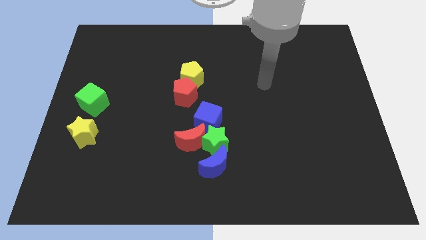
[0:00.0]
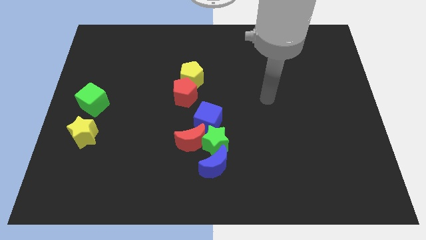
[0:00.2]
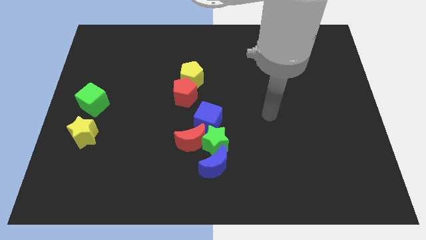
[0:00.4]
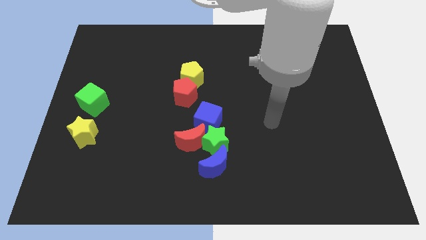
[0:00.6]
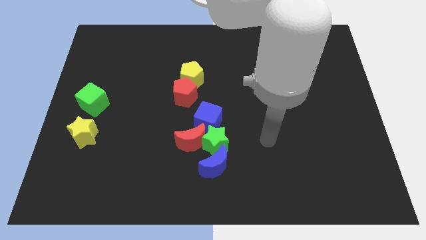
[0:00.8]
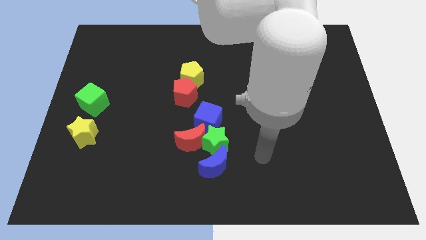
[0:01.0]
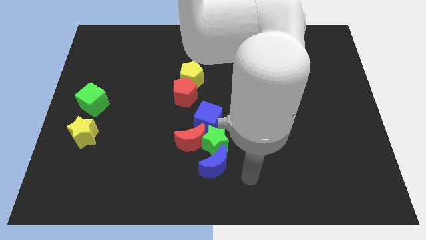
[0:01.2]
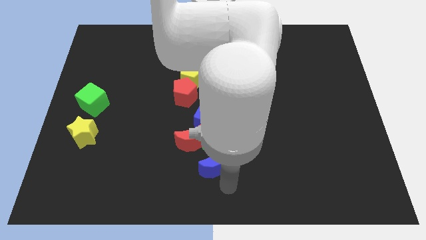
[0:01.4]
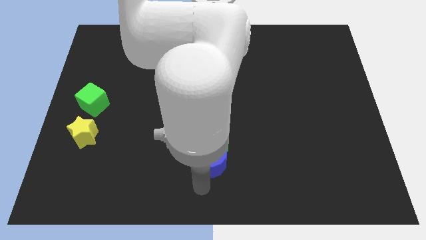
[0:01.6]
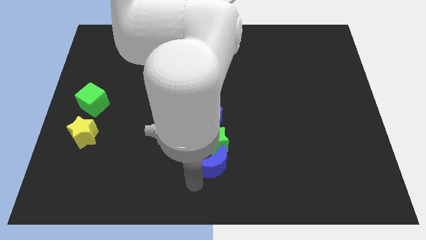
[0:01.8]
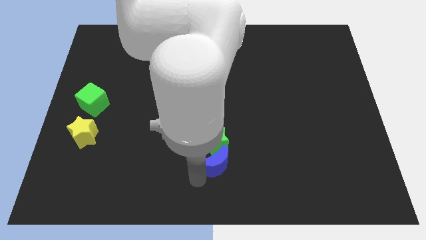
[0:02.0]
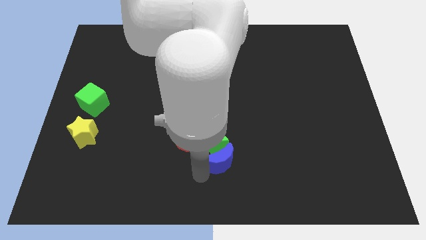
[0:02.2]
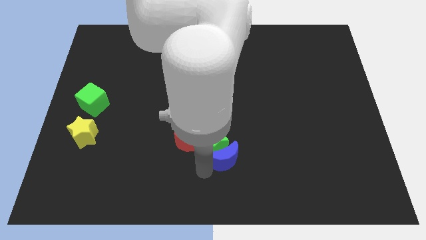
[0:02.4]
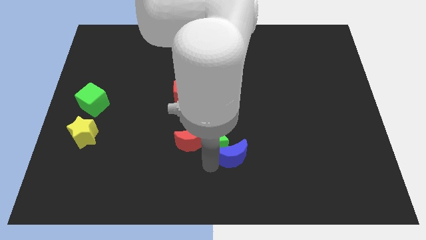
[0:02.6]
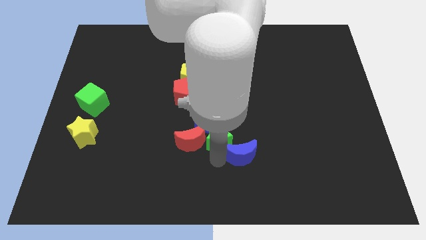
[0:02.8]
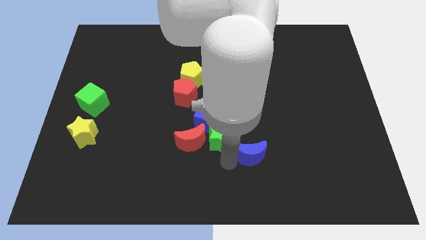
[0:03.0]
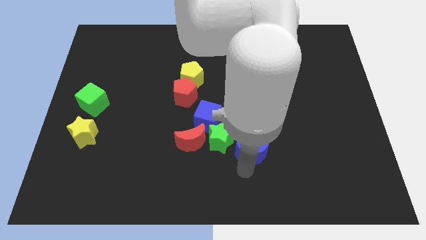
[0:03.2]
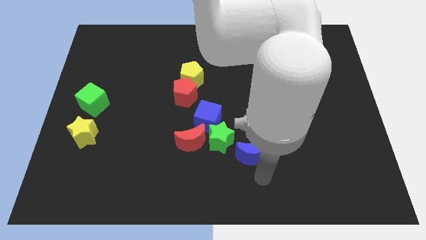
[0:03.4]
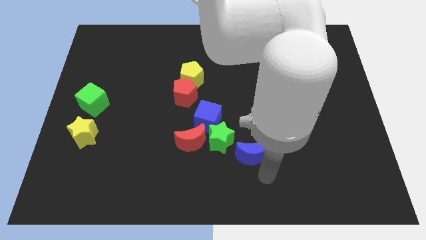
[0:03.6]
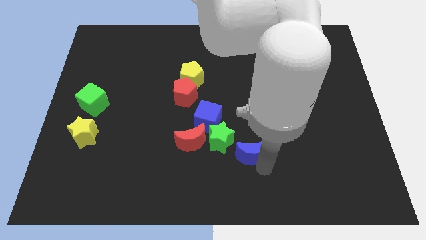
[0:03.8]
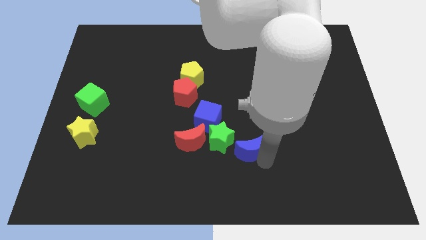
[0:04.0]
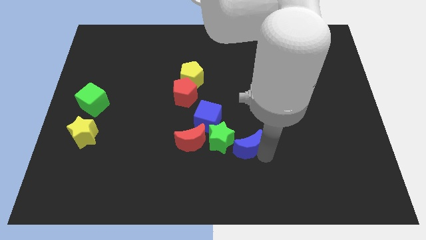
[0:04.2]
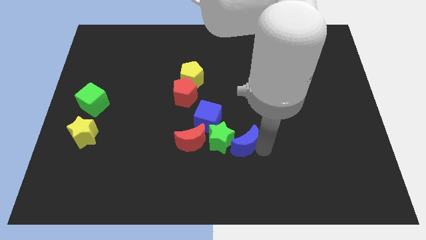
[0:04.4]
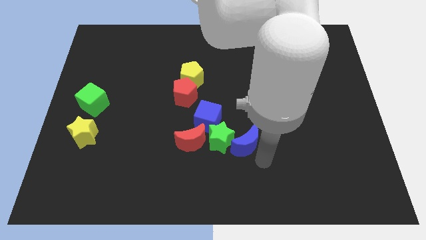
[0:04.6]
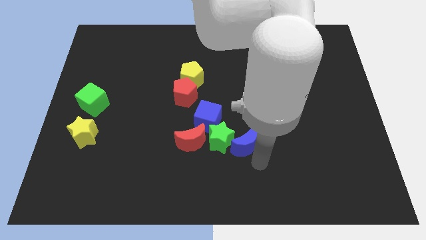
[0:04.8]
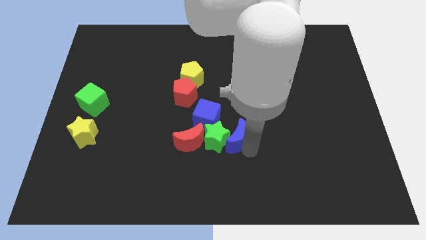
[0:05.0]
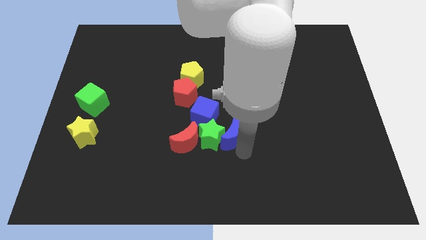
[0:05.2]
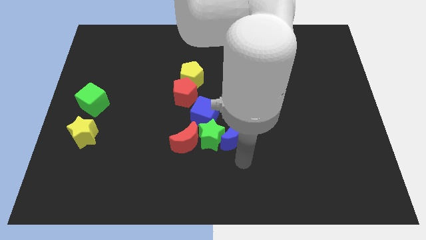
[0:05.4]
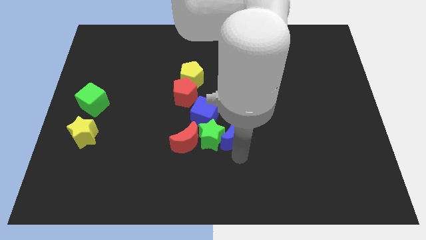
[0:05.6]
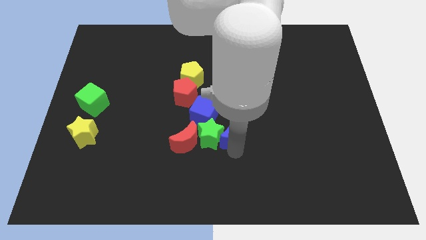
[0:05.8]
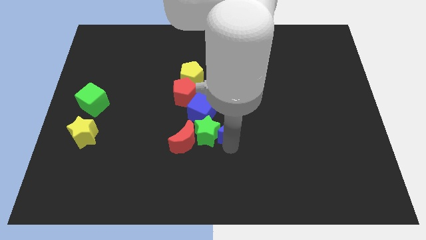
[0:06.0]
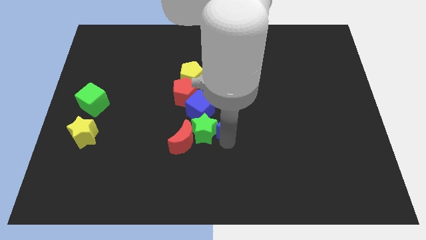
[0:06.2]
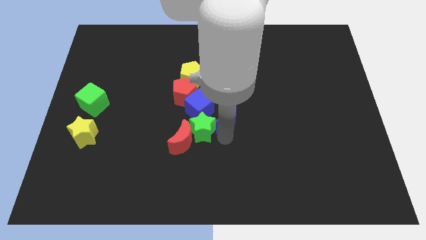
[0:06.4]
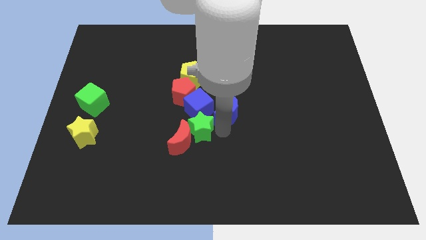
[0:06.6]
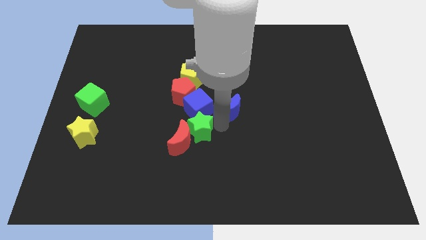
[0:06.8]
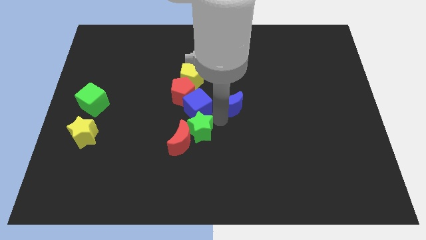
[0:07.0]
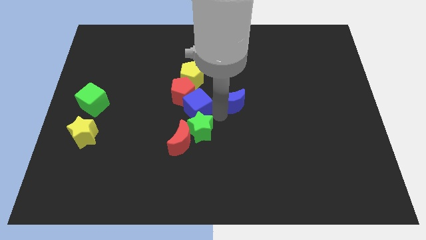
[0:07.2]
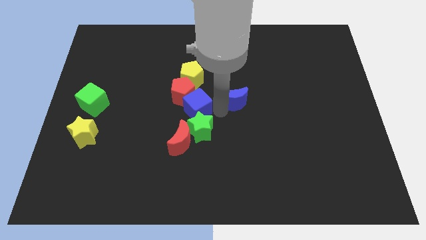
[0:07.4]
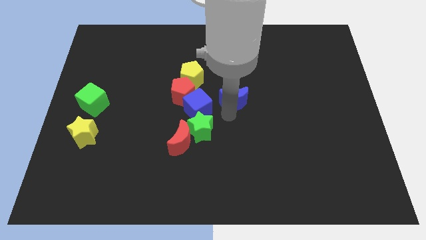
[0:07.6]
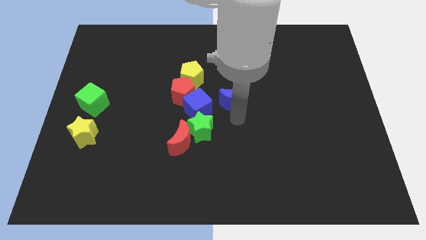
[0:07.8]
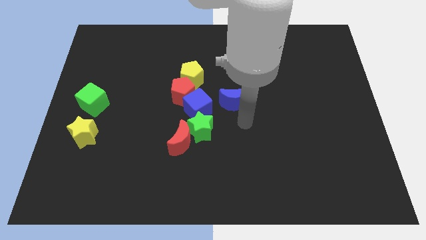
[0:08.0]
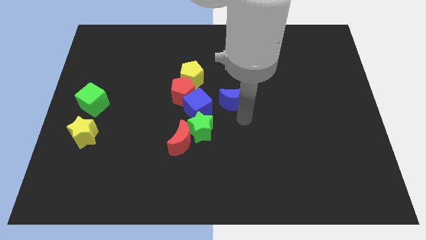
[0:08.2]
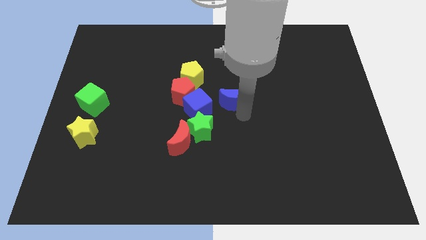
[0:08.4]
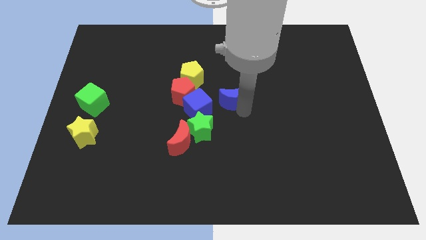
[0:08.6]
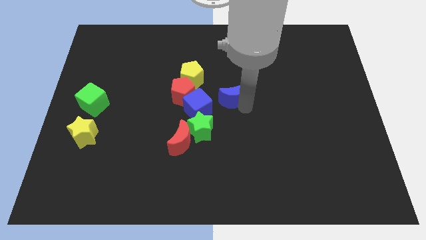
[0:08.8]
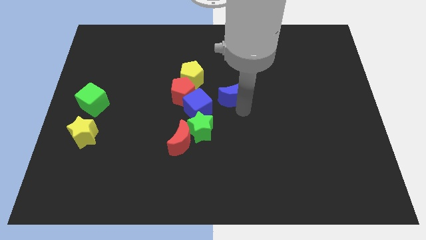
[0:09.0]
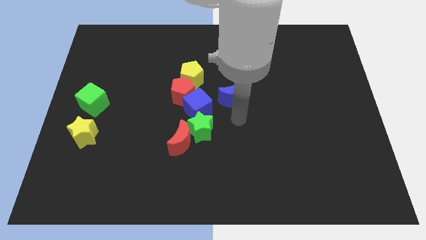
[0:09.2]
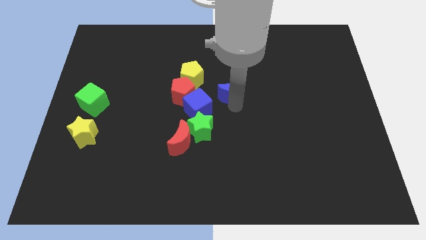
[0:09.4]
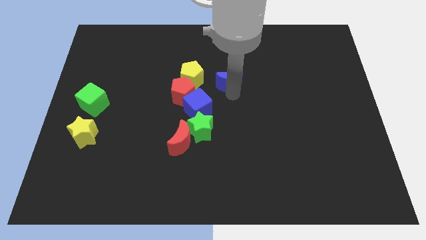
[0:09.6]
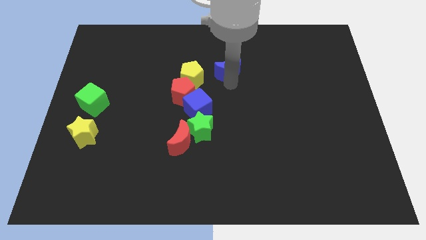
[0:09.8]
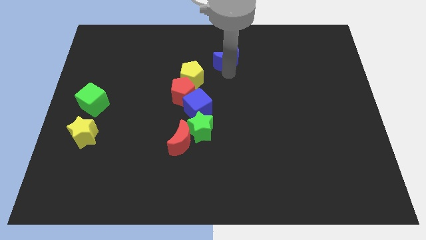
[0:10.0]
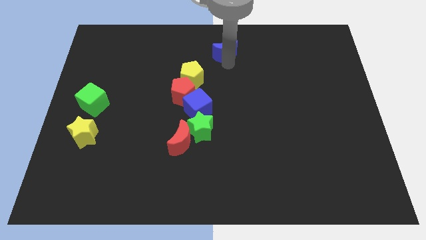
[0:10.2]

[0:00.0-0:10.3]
put the blue moon to the towards your base

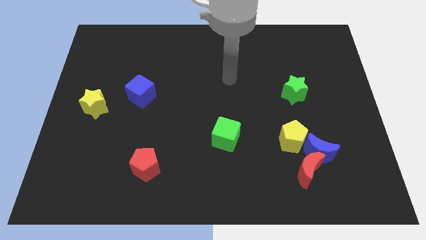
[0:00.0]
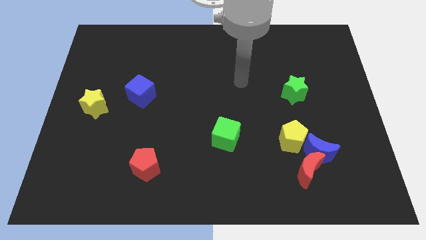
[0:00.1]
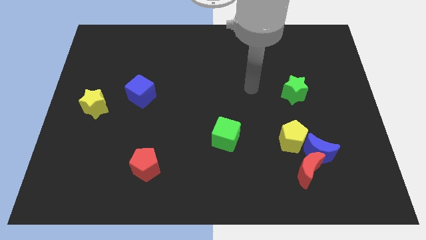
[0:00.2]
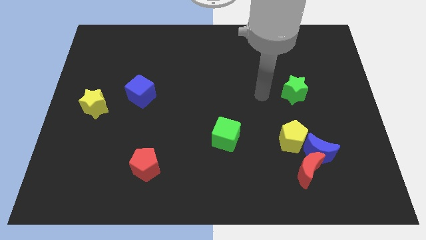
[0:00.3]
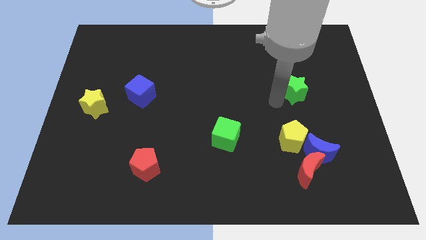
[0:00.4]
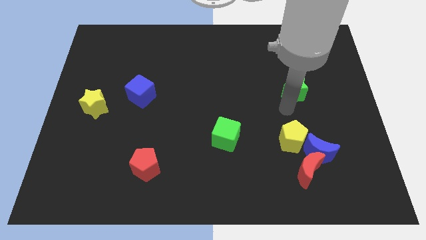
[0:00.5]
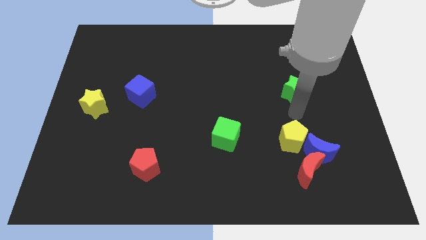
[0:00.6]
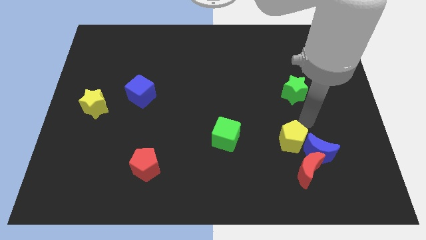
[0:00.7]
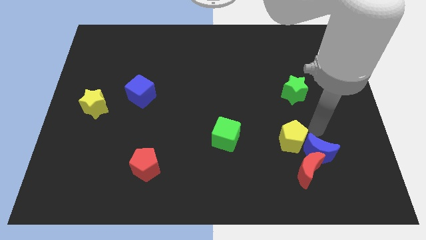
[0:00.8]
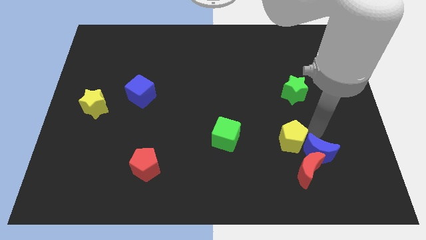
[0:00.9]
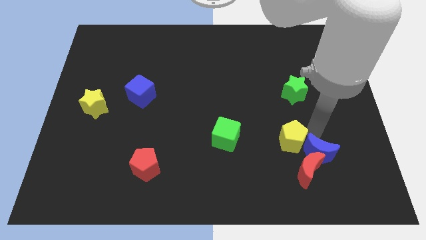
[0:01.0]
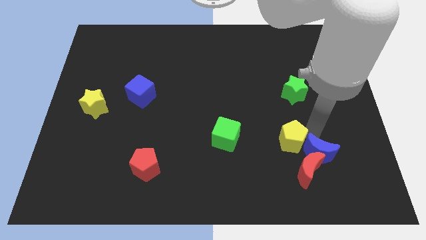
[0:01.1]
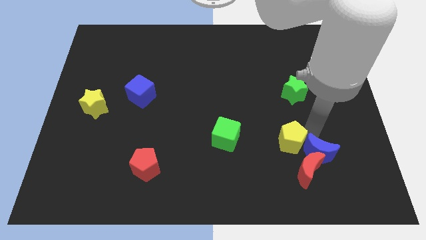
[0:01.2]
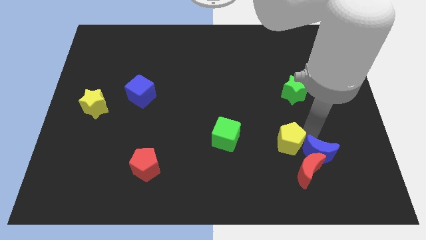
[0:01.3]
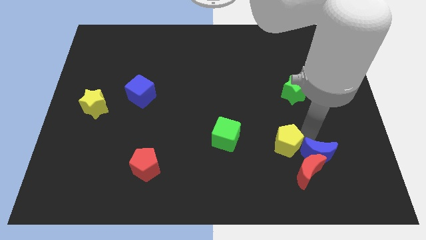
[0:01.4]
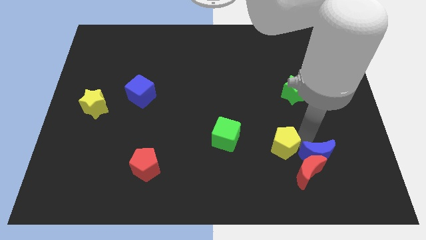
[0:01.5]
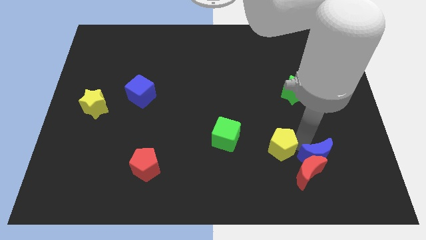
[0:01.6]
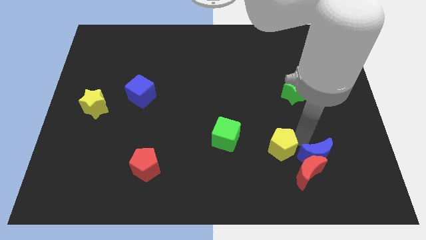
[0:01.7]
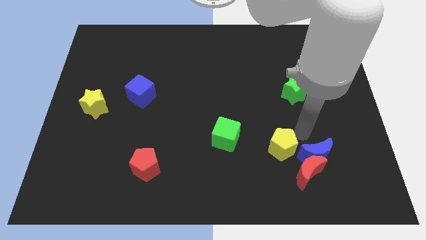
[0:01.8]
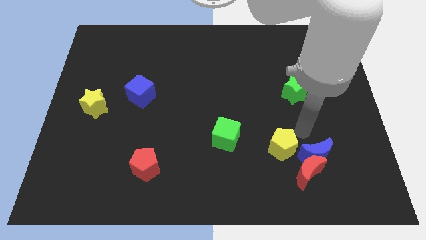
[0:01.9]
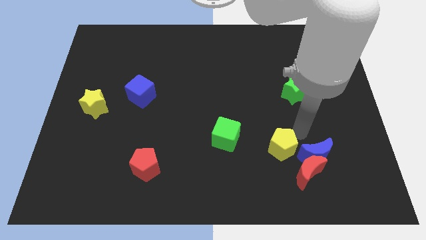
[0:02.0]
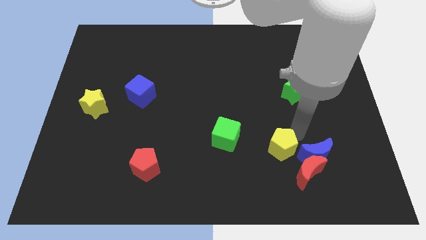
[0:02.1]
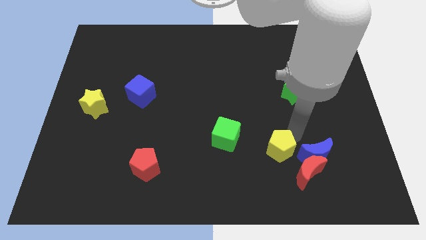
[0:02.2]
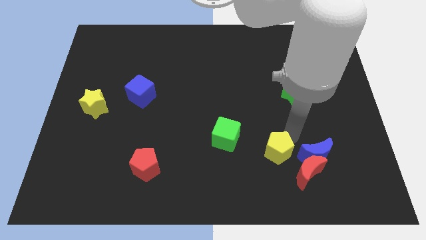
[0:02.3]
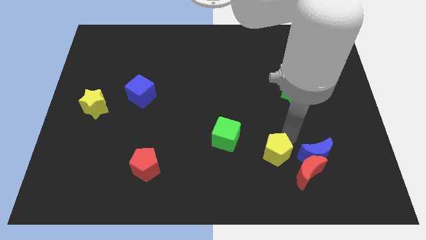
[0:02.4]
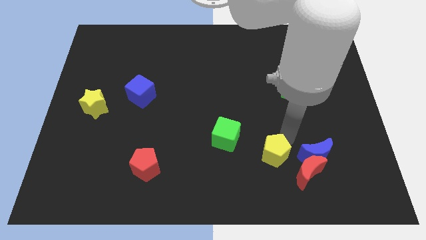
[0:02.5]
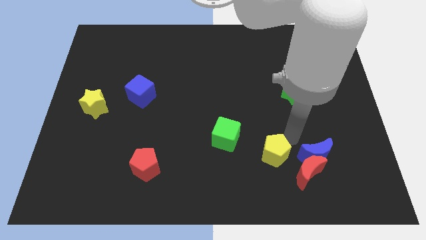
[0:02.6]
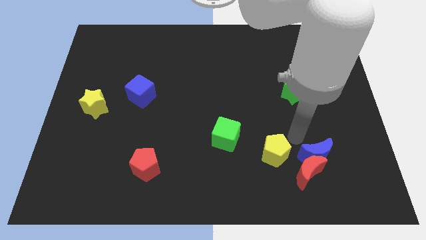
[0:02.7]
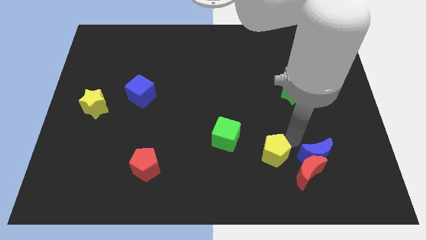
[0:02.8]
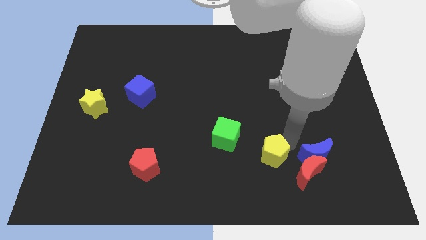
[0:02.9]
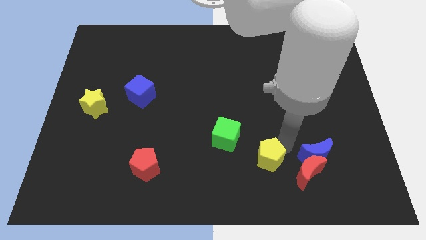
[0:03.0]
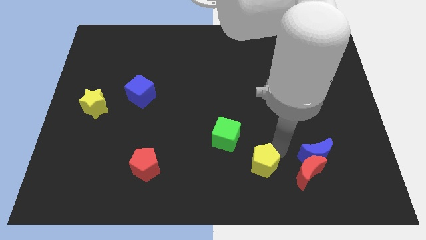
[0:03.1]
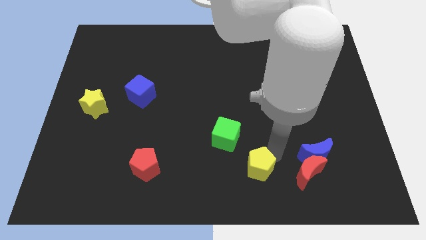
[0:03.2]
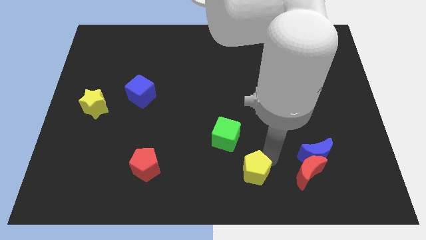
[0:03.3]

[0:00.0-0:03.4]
slide the yellow pentagon to the bottom side
